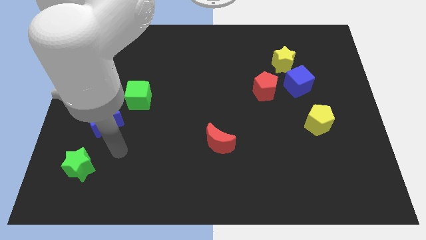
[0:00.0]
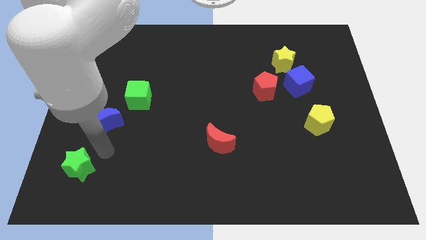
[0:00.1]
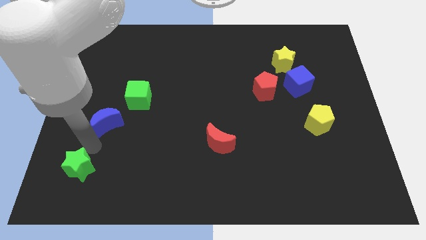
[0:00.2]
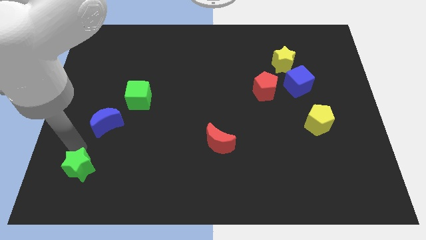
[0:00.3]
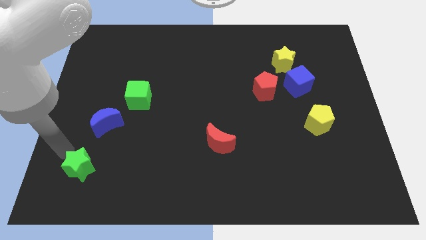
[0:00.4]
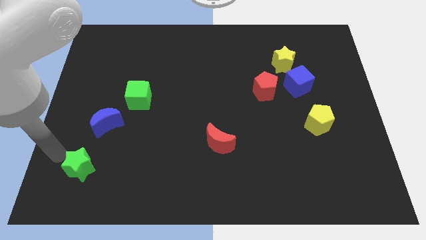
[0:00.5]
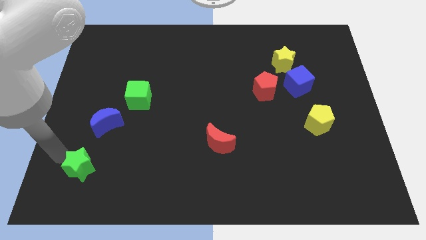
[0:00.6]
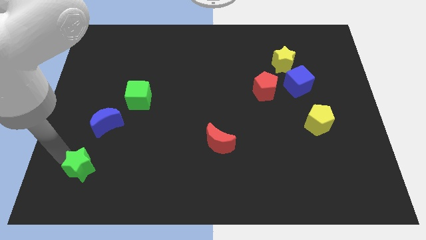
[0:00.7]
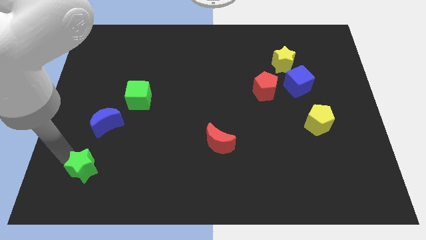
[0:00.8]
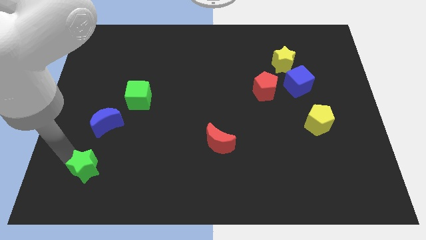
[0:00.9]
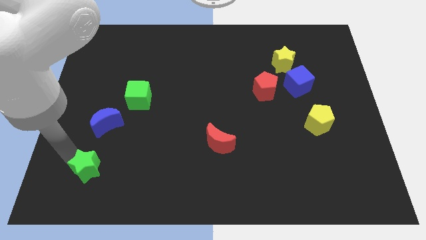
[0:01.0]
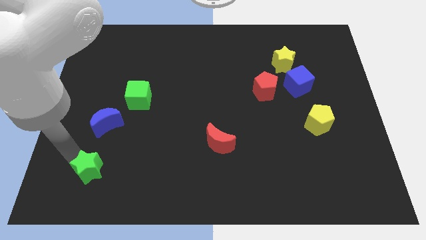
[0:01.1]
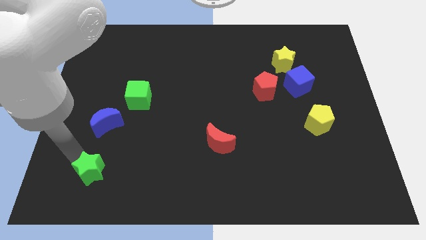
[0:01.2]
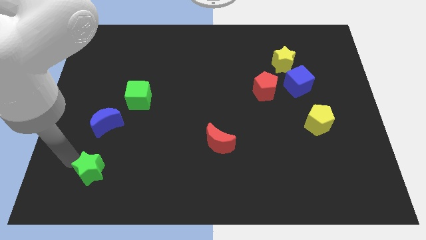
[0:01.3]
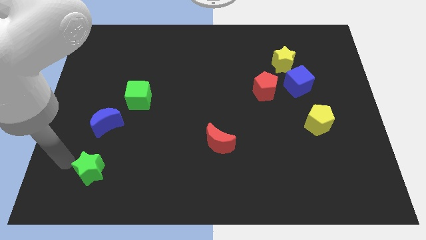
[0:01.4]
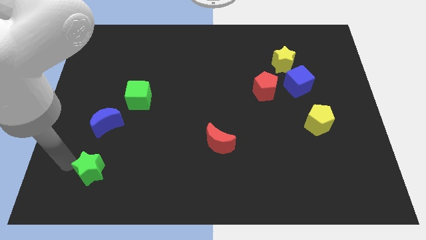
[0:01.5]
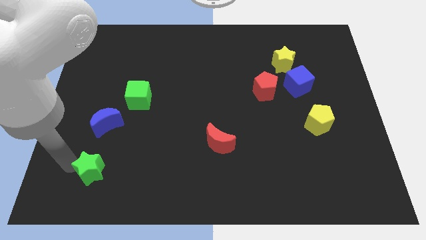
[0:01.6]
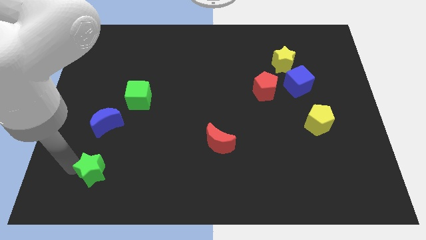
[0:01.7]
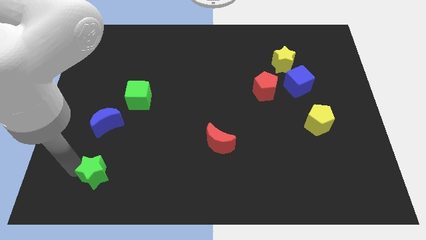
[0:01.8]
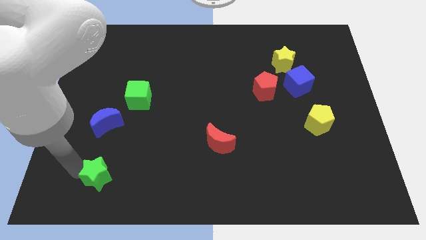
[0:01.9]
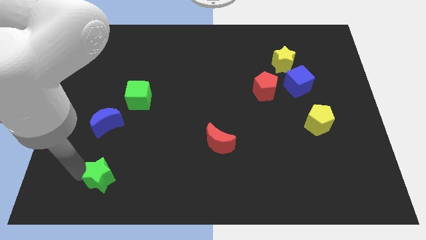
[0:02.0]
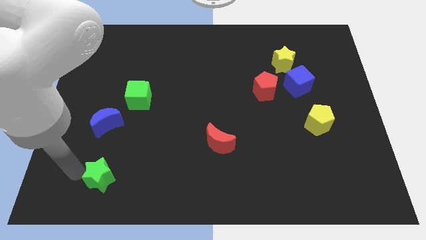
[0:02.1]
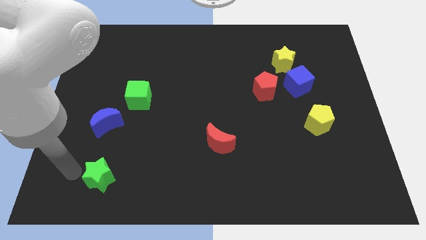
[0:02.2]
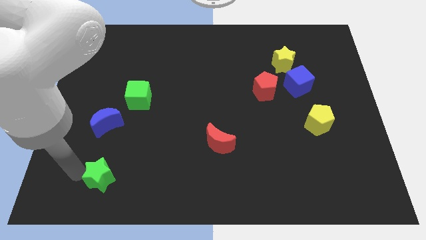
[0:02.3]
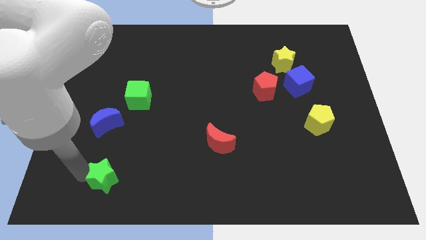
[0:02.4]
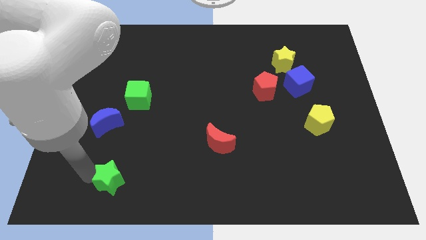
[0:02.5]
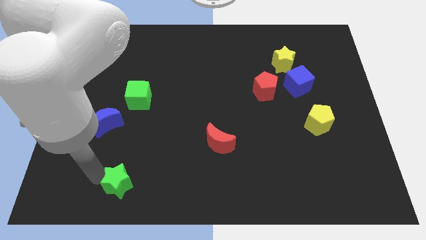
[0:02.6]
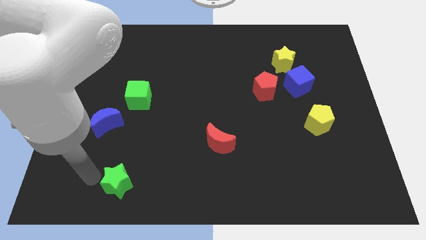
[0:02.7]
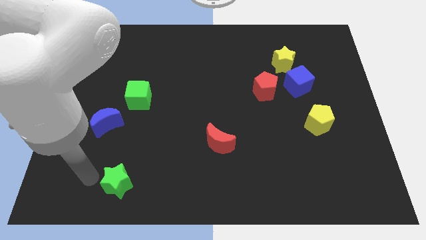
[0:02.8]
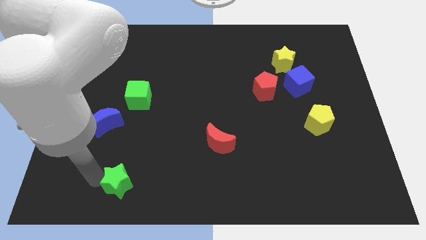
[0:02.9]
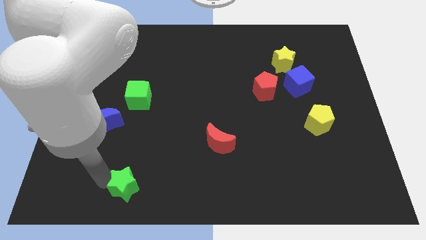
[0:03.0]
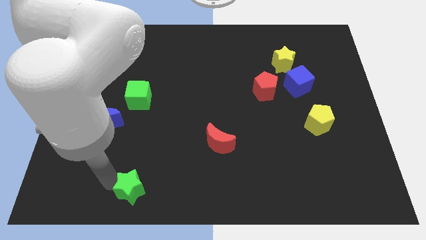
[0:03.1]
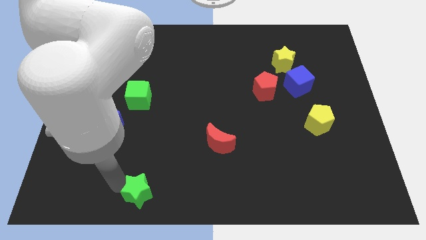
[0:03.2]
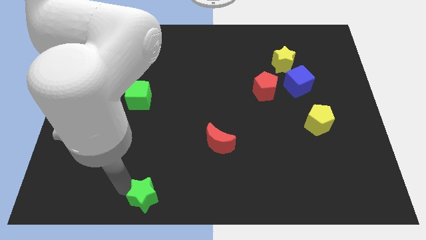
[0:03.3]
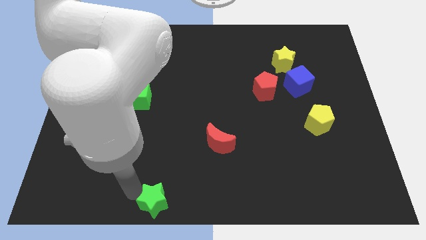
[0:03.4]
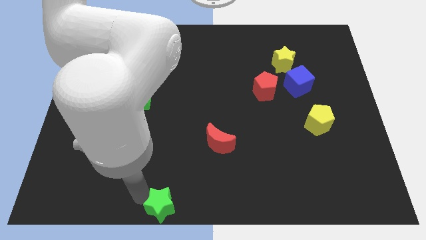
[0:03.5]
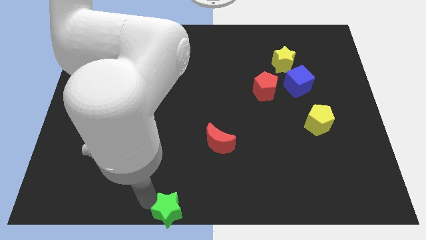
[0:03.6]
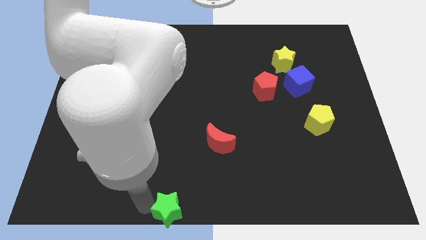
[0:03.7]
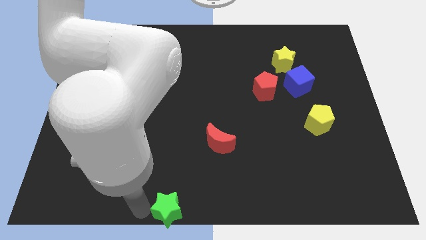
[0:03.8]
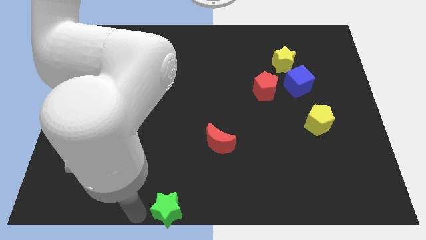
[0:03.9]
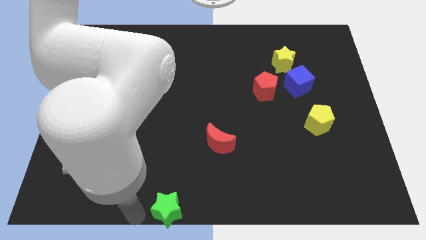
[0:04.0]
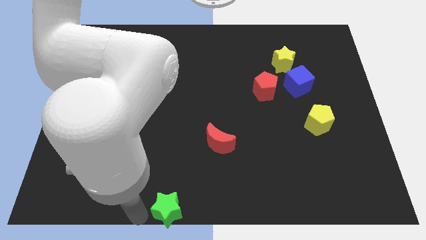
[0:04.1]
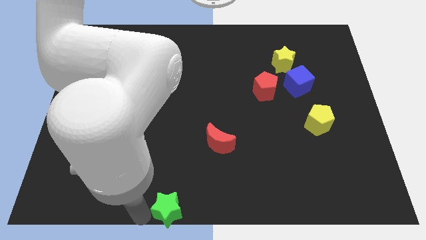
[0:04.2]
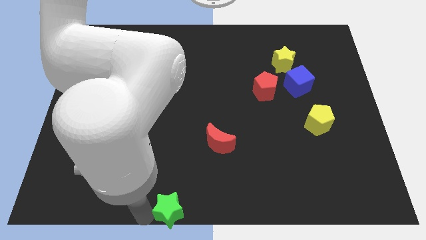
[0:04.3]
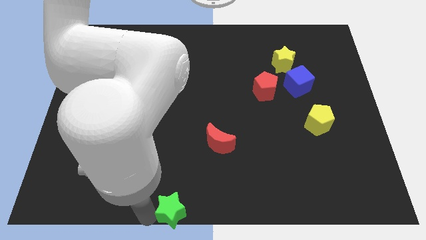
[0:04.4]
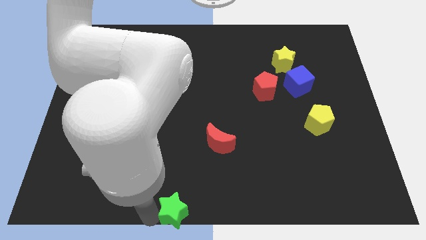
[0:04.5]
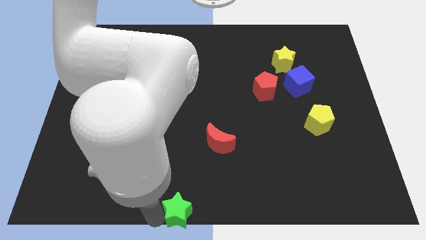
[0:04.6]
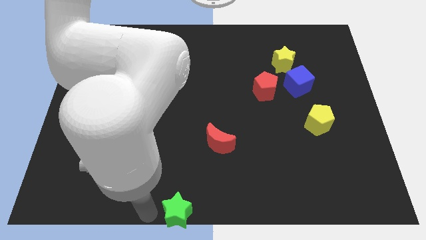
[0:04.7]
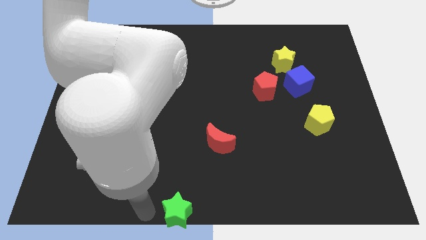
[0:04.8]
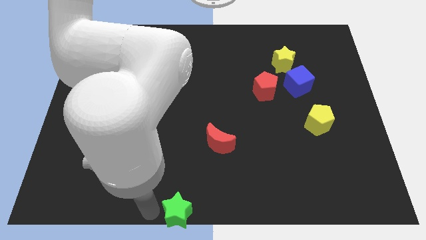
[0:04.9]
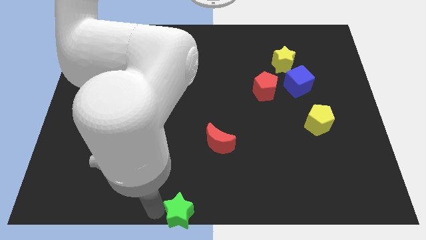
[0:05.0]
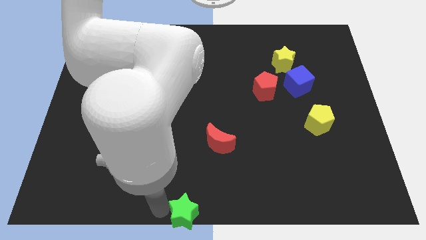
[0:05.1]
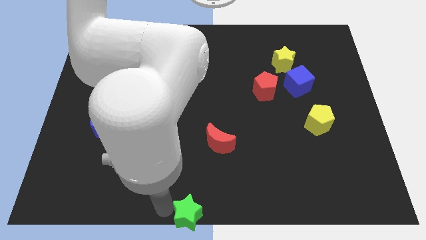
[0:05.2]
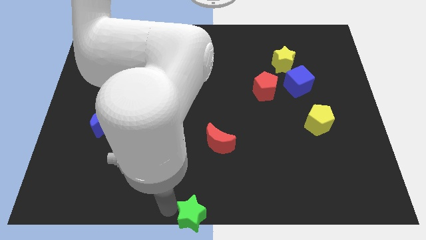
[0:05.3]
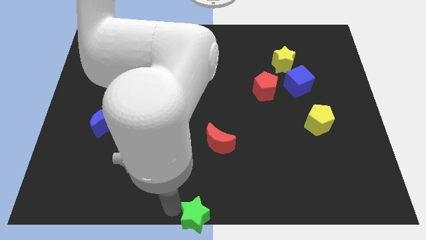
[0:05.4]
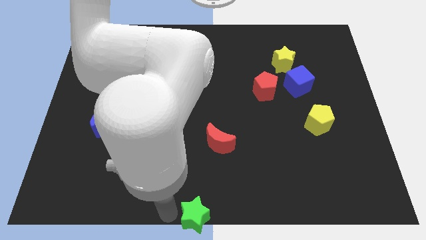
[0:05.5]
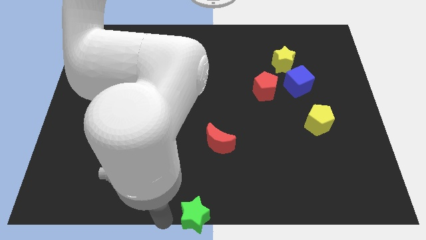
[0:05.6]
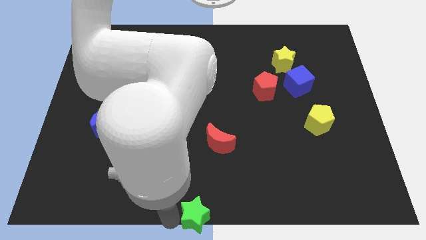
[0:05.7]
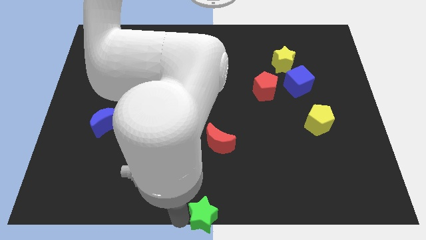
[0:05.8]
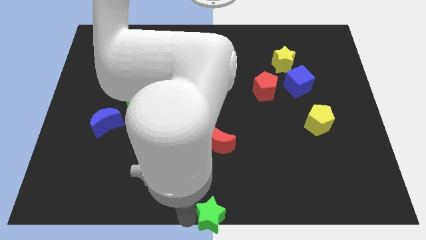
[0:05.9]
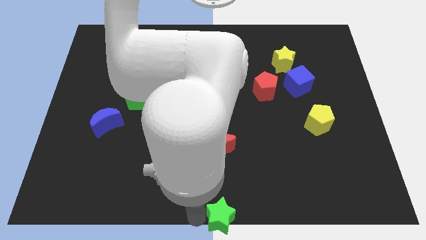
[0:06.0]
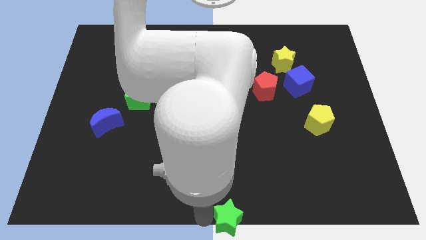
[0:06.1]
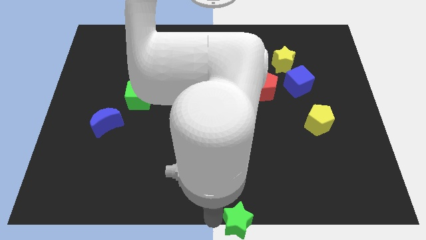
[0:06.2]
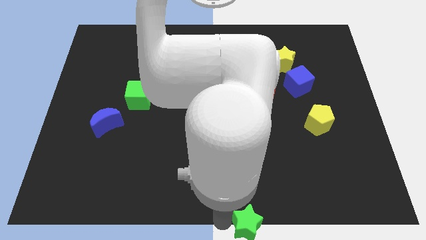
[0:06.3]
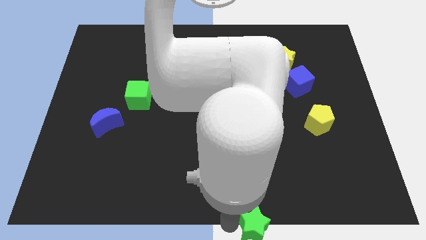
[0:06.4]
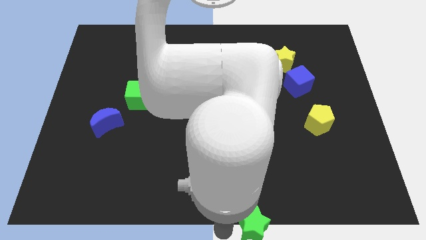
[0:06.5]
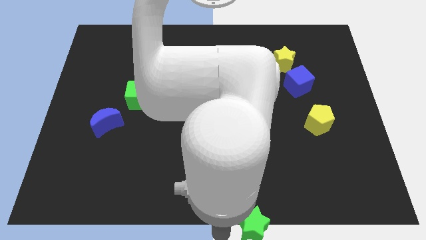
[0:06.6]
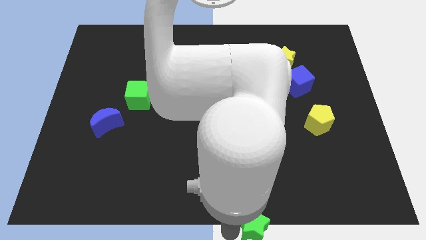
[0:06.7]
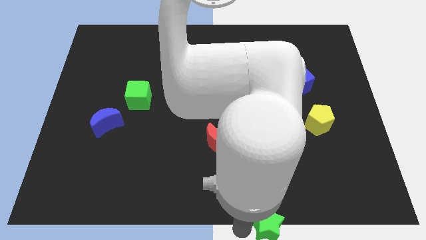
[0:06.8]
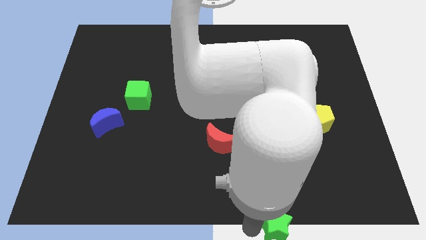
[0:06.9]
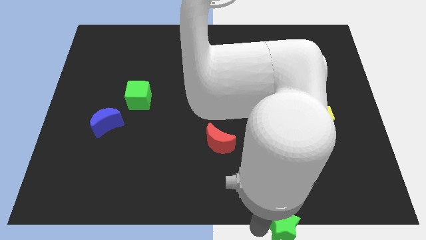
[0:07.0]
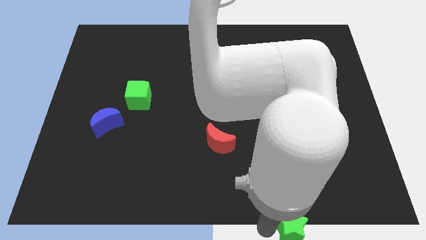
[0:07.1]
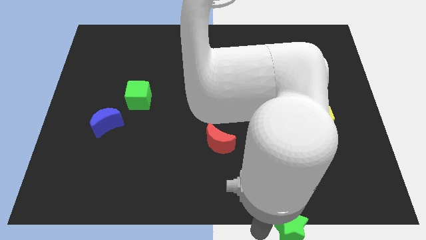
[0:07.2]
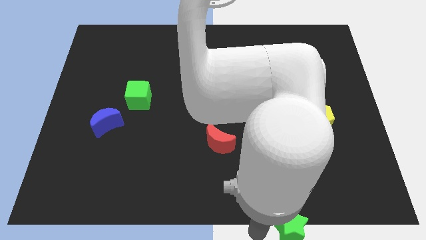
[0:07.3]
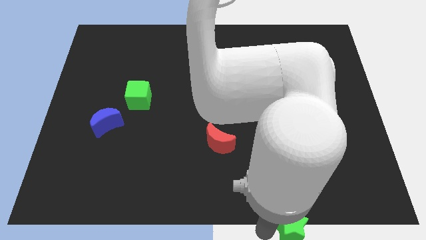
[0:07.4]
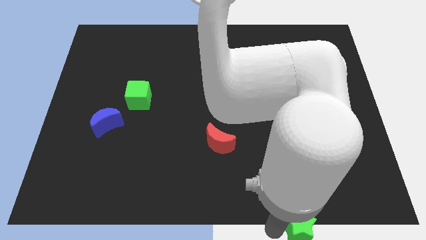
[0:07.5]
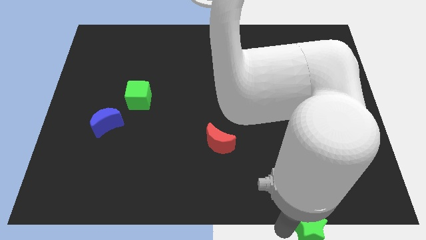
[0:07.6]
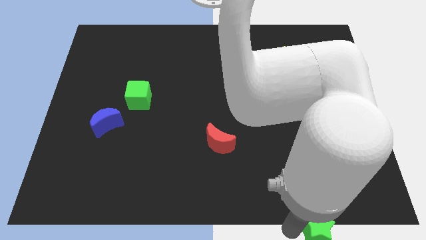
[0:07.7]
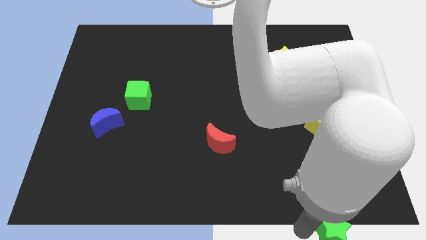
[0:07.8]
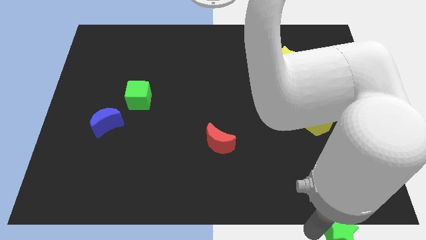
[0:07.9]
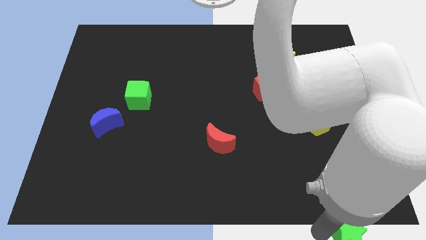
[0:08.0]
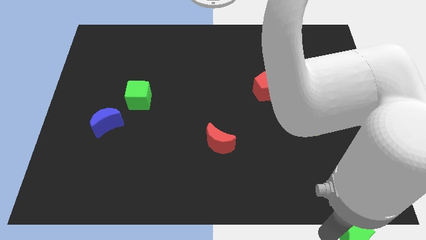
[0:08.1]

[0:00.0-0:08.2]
slide the green star to the lower right corner
